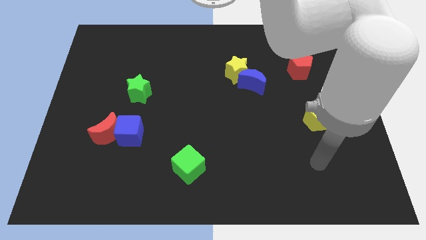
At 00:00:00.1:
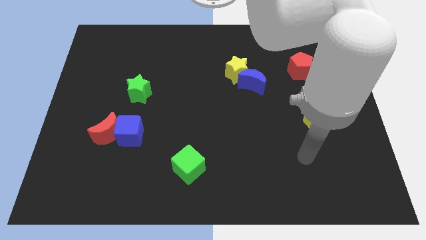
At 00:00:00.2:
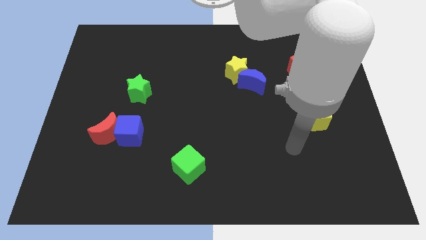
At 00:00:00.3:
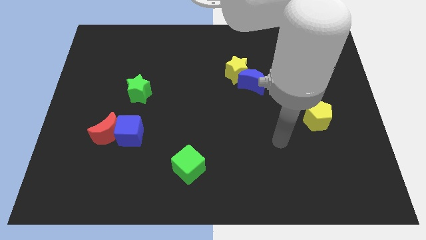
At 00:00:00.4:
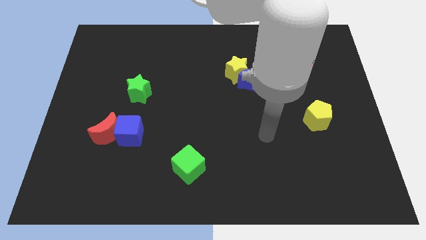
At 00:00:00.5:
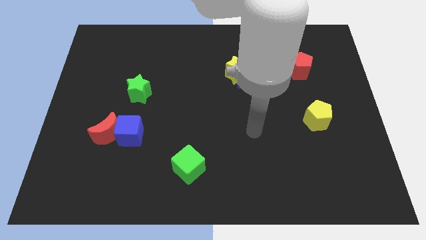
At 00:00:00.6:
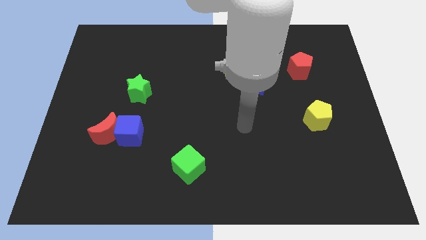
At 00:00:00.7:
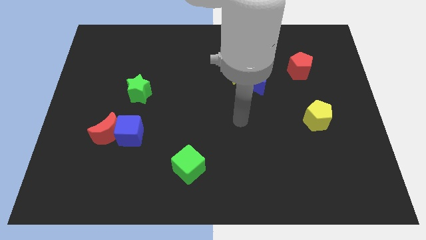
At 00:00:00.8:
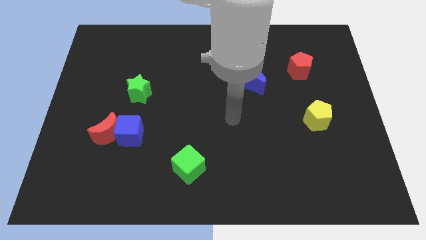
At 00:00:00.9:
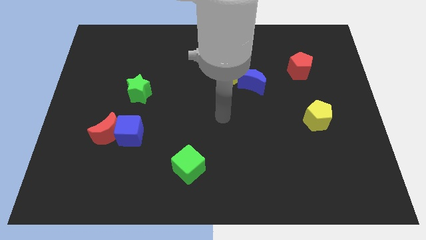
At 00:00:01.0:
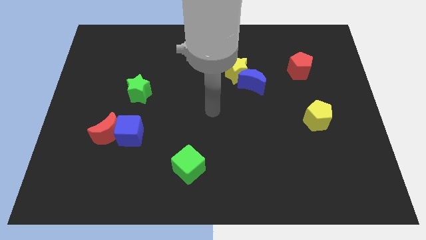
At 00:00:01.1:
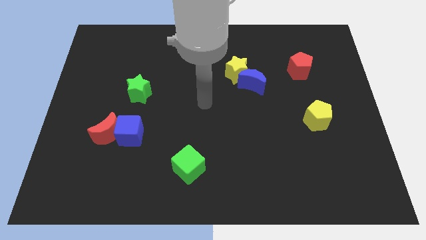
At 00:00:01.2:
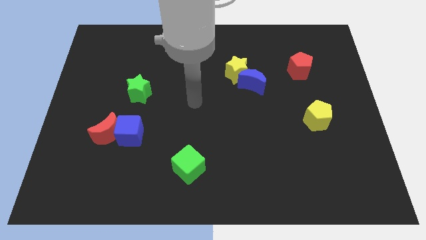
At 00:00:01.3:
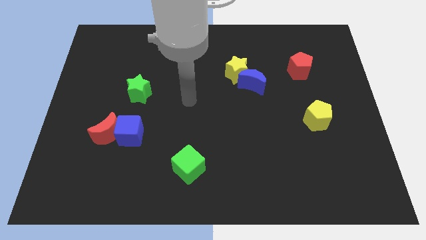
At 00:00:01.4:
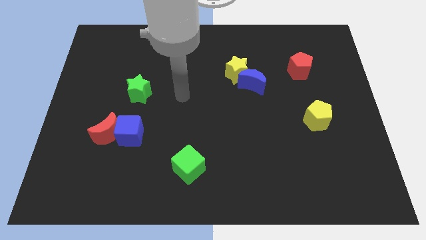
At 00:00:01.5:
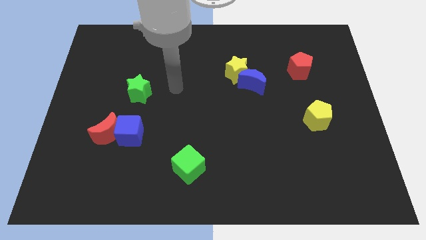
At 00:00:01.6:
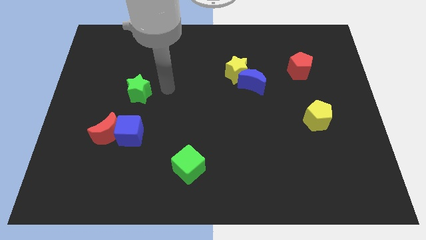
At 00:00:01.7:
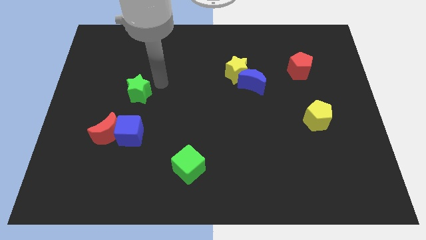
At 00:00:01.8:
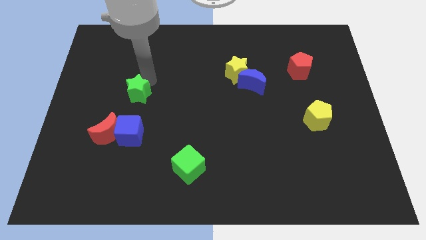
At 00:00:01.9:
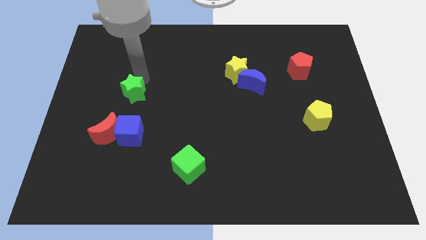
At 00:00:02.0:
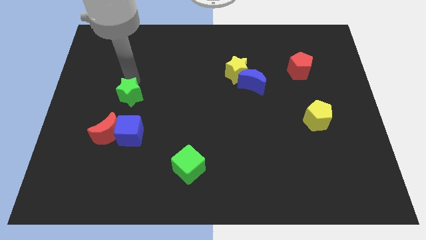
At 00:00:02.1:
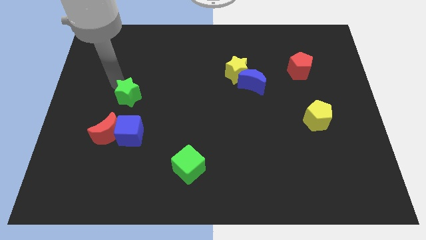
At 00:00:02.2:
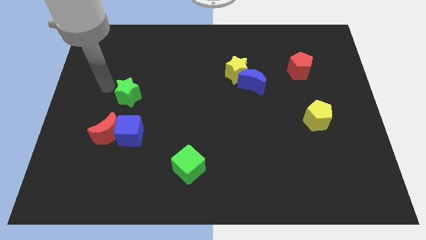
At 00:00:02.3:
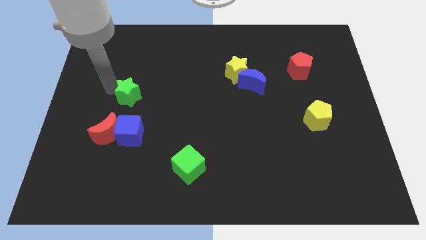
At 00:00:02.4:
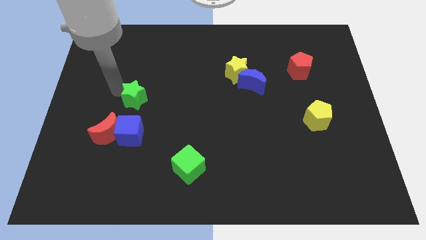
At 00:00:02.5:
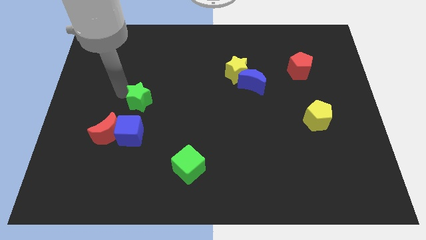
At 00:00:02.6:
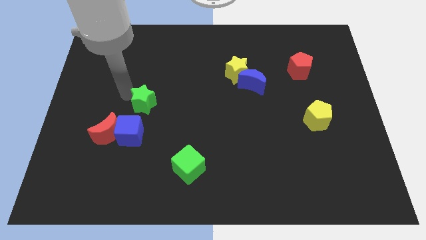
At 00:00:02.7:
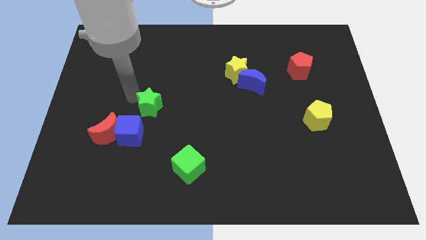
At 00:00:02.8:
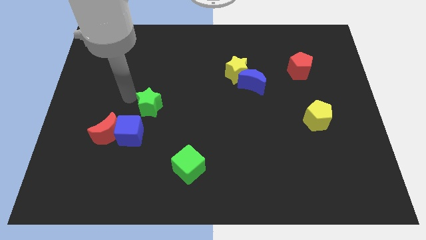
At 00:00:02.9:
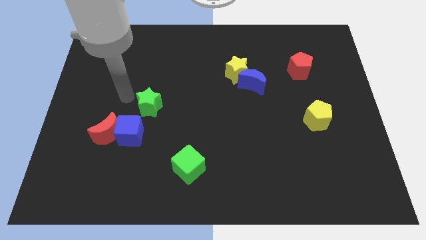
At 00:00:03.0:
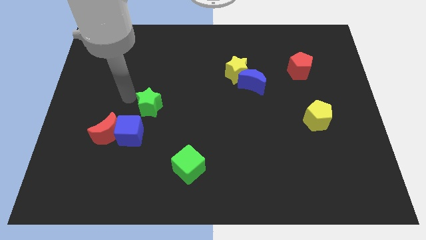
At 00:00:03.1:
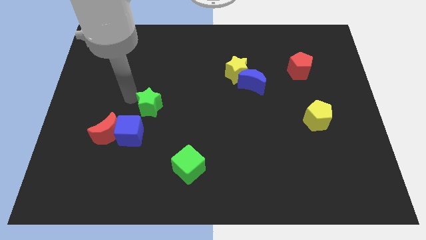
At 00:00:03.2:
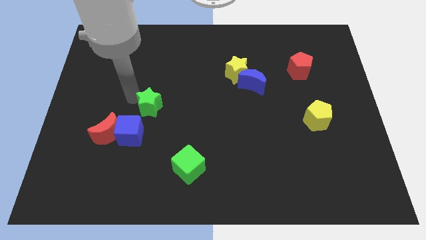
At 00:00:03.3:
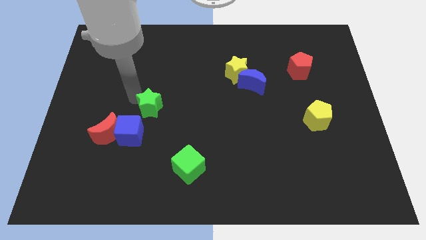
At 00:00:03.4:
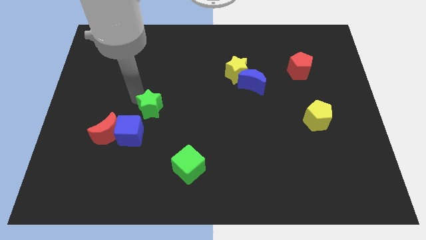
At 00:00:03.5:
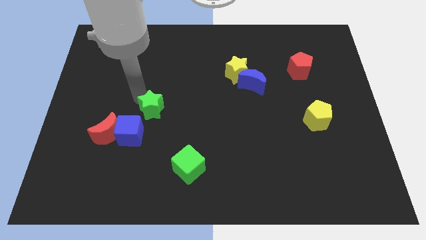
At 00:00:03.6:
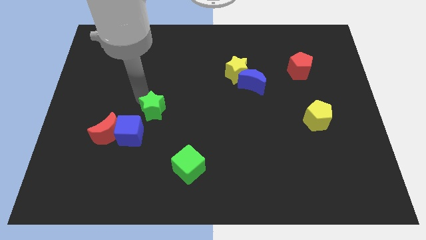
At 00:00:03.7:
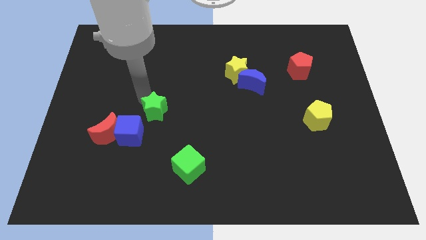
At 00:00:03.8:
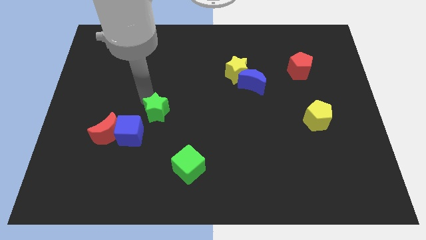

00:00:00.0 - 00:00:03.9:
push the green star downwards and to the right diagonally a bit

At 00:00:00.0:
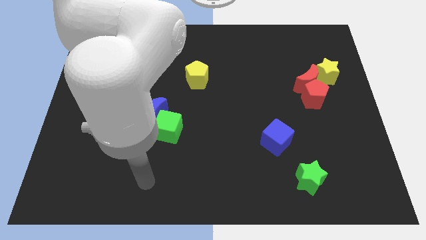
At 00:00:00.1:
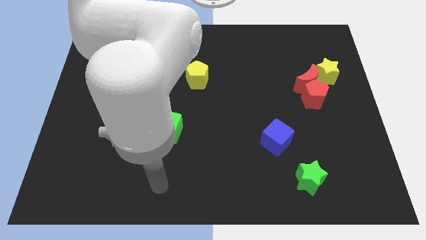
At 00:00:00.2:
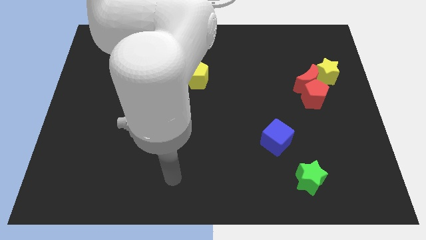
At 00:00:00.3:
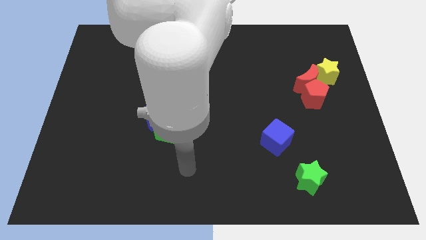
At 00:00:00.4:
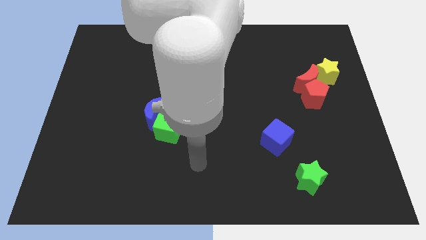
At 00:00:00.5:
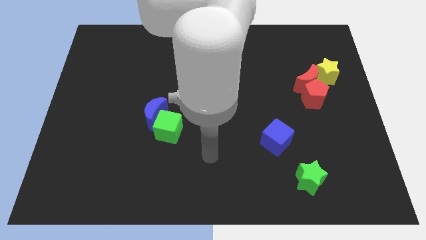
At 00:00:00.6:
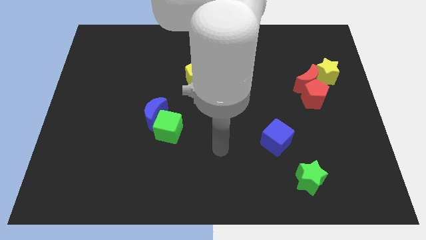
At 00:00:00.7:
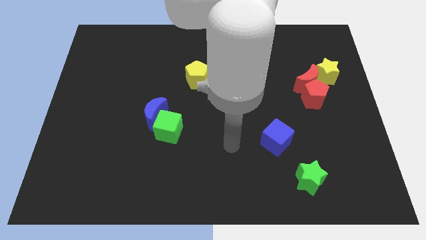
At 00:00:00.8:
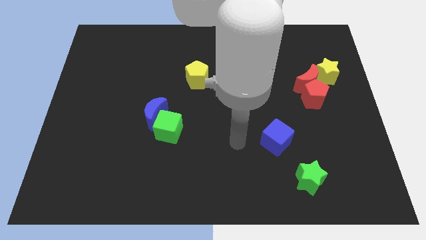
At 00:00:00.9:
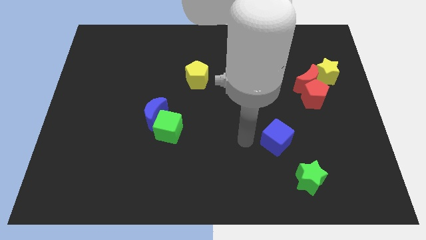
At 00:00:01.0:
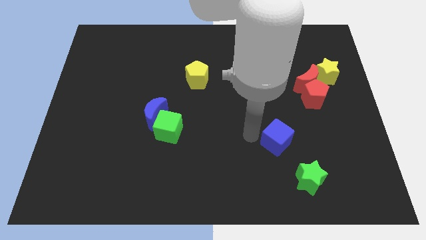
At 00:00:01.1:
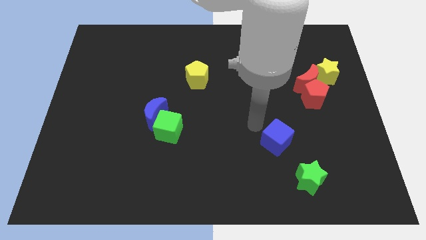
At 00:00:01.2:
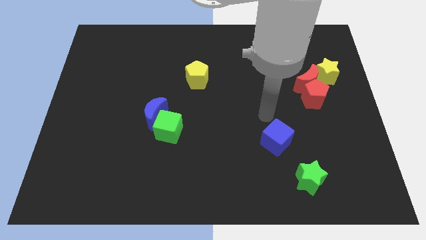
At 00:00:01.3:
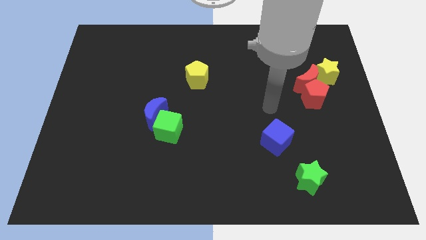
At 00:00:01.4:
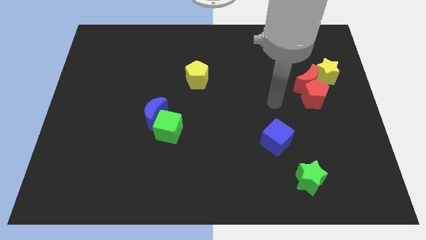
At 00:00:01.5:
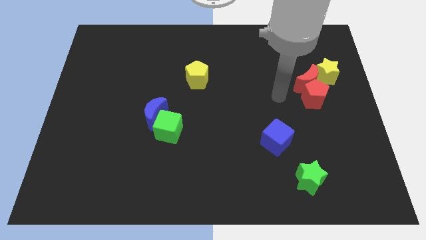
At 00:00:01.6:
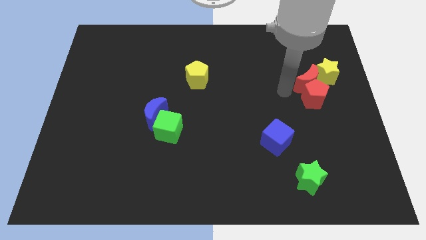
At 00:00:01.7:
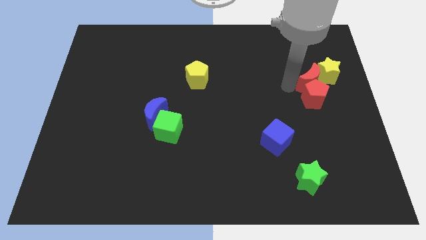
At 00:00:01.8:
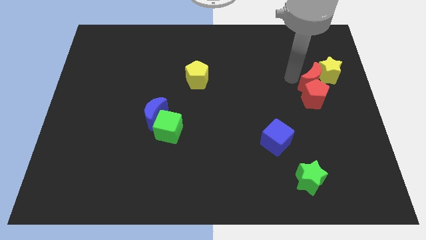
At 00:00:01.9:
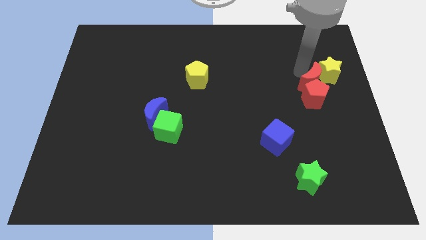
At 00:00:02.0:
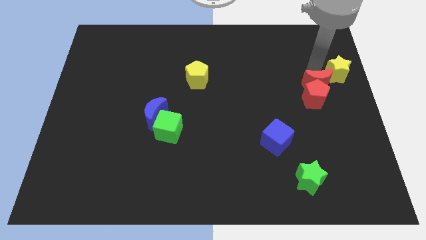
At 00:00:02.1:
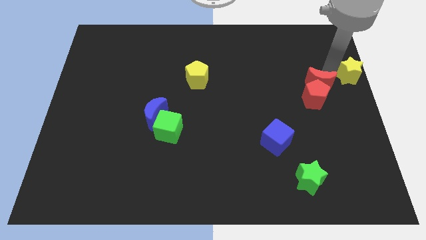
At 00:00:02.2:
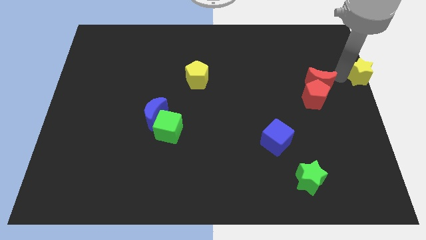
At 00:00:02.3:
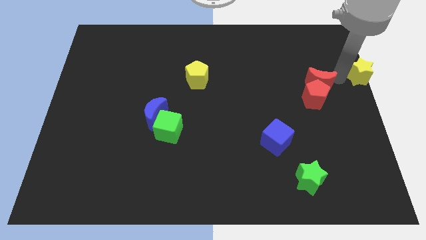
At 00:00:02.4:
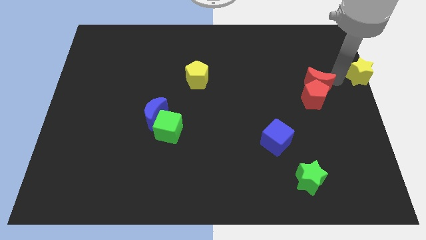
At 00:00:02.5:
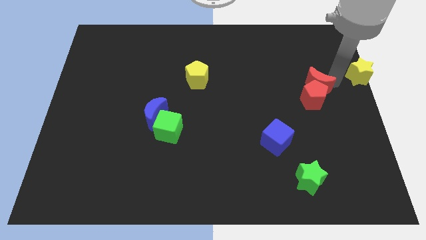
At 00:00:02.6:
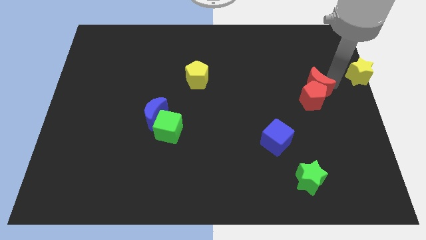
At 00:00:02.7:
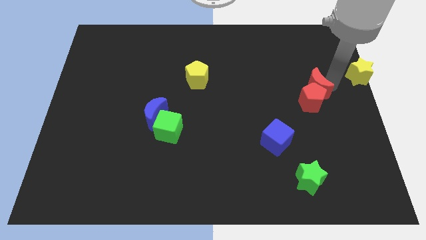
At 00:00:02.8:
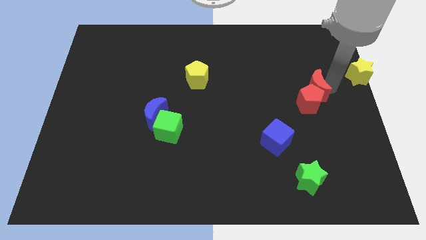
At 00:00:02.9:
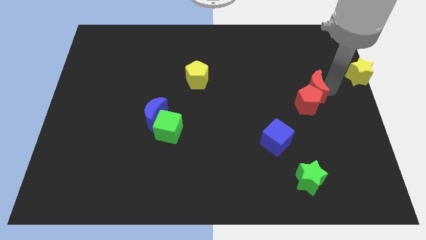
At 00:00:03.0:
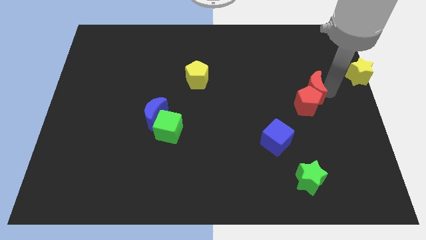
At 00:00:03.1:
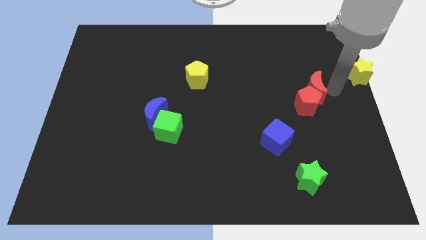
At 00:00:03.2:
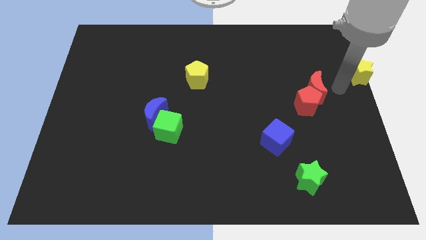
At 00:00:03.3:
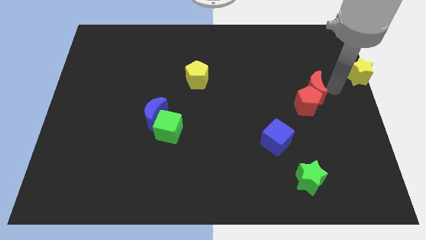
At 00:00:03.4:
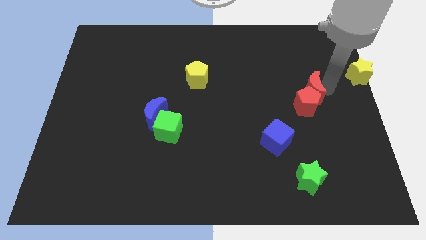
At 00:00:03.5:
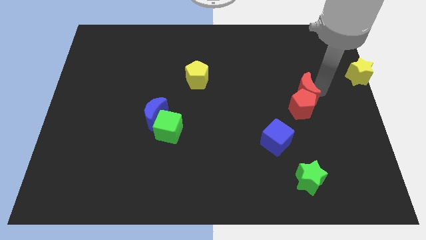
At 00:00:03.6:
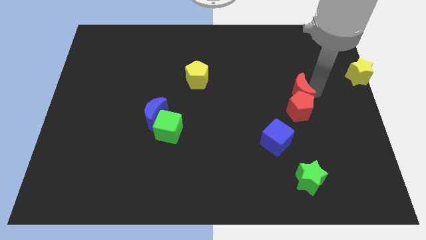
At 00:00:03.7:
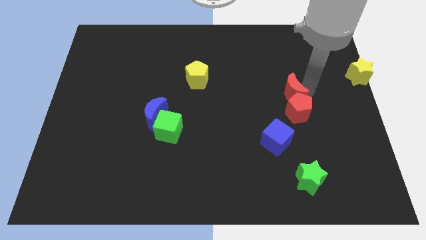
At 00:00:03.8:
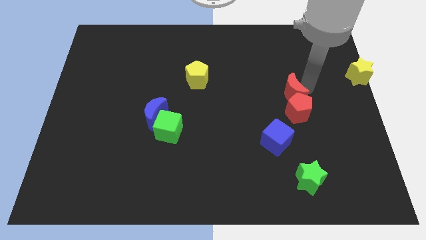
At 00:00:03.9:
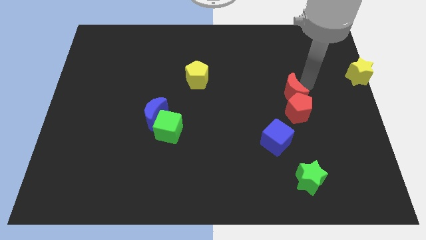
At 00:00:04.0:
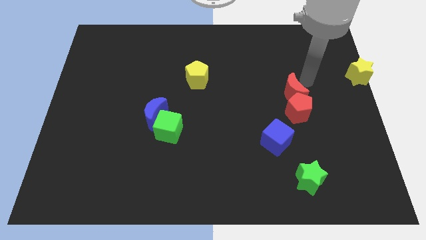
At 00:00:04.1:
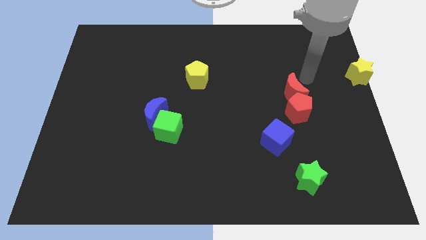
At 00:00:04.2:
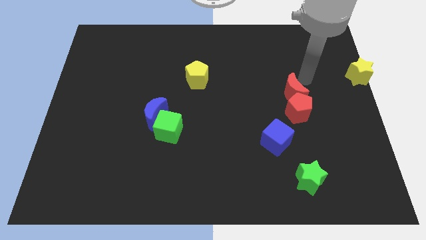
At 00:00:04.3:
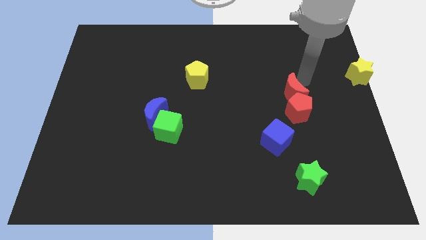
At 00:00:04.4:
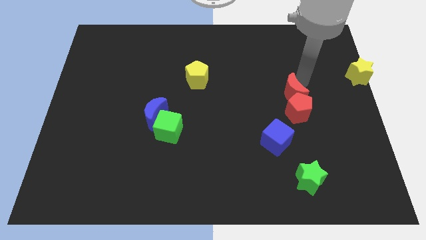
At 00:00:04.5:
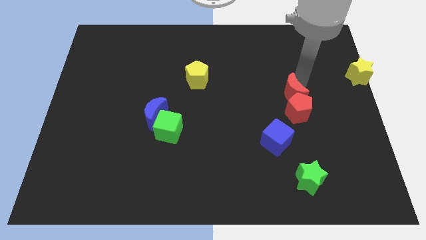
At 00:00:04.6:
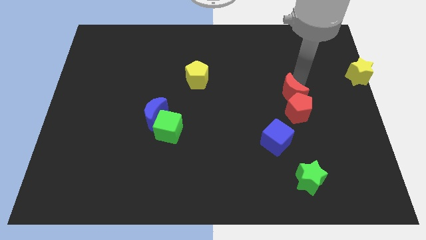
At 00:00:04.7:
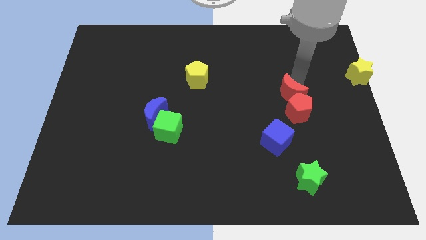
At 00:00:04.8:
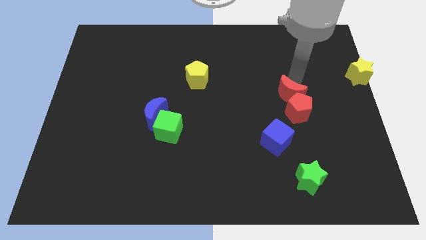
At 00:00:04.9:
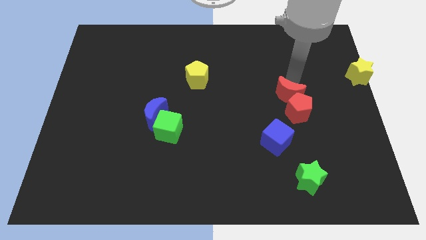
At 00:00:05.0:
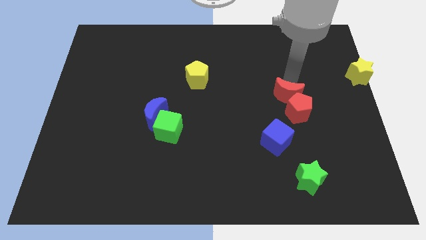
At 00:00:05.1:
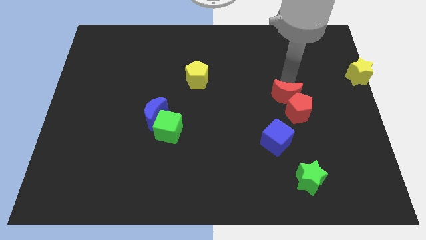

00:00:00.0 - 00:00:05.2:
slightly push the red moon down and left diagonally
